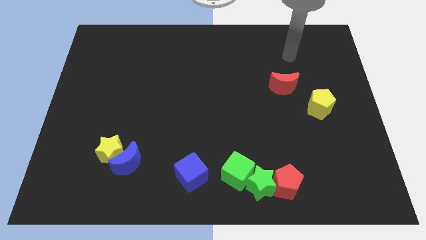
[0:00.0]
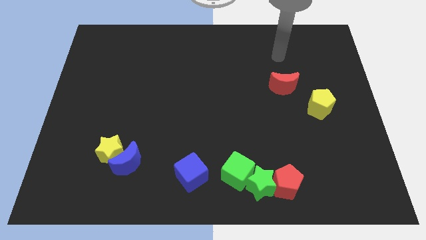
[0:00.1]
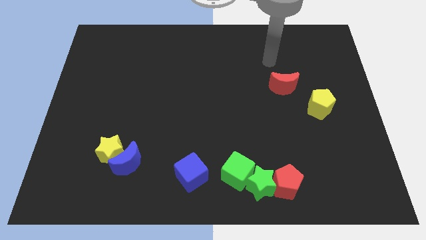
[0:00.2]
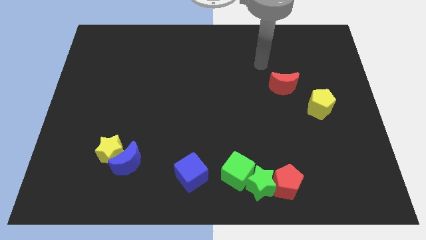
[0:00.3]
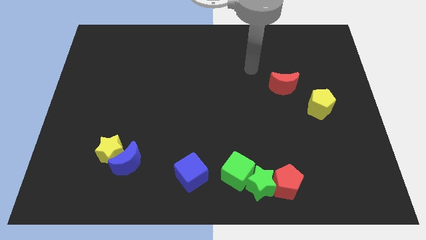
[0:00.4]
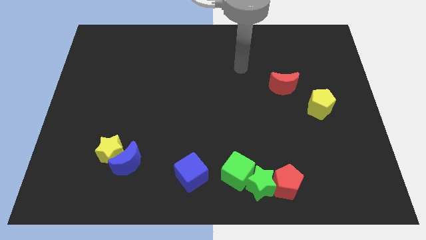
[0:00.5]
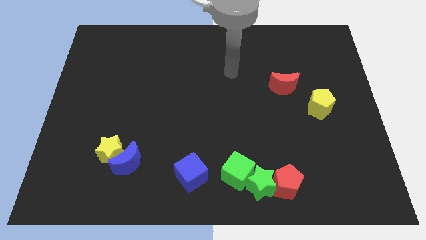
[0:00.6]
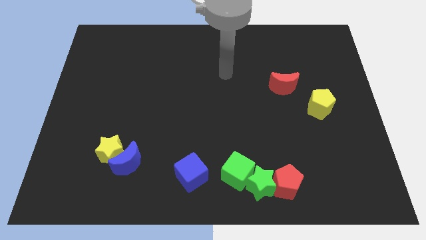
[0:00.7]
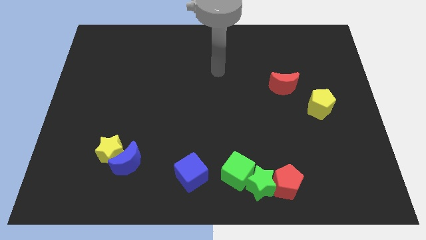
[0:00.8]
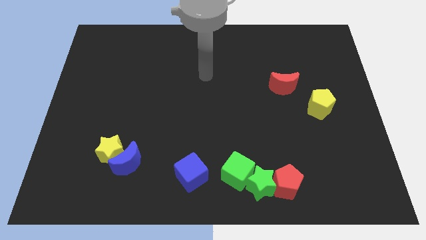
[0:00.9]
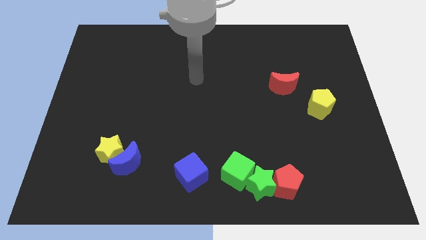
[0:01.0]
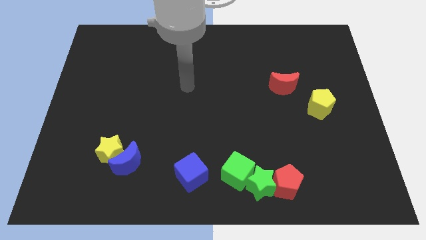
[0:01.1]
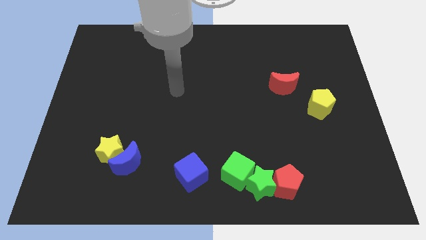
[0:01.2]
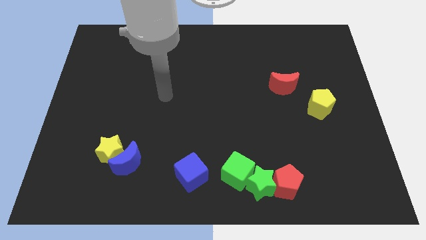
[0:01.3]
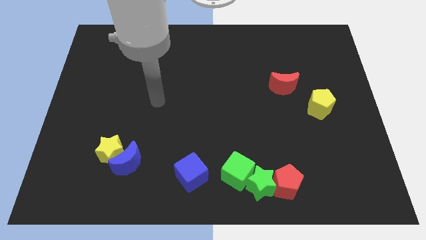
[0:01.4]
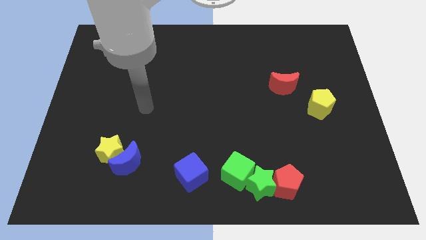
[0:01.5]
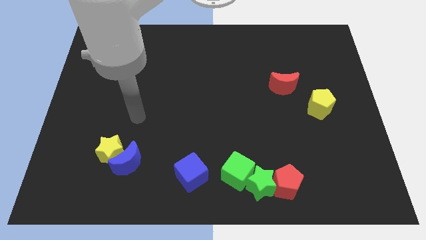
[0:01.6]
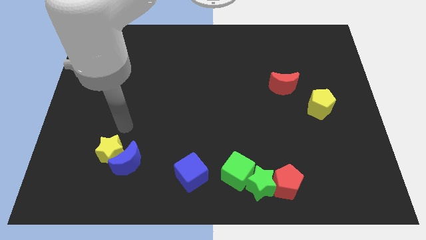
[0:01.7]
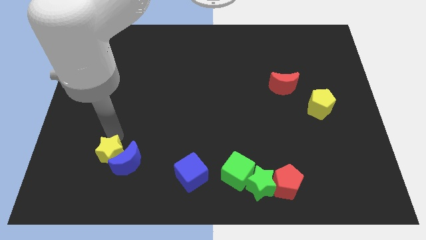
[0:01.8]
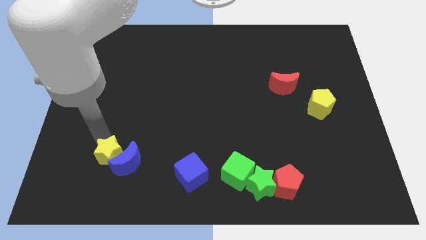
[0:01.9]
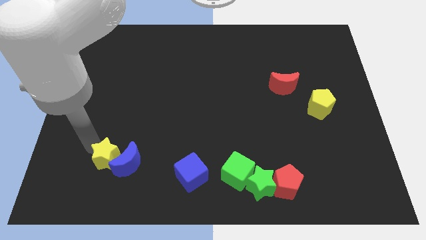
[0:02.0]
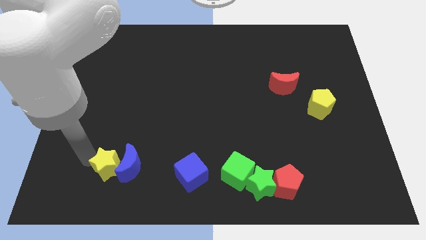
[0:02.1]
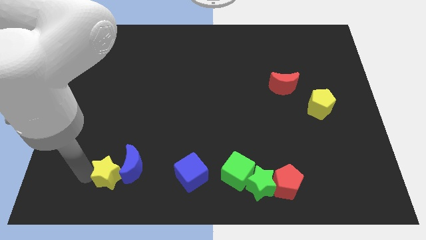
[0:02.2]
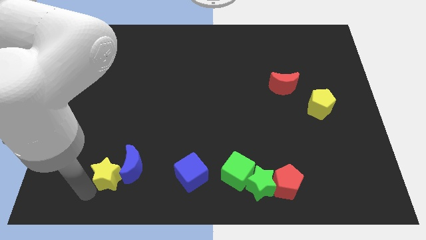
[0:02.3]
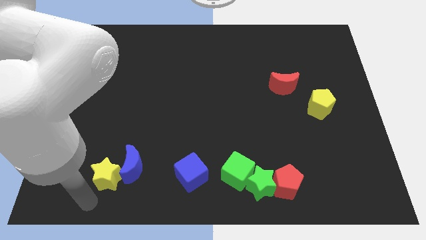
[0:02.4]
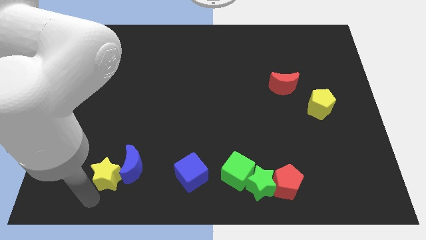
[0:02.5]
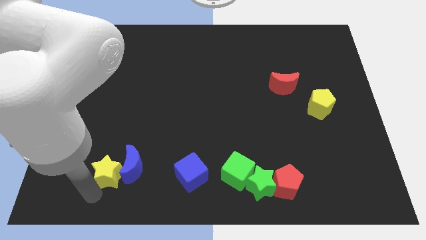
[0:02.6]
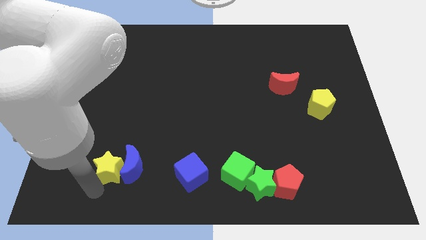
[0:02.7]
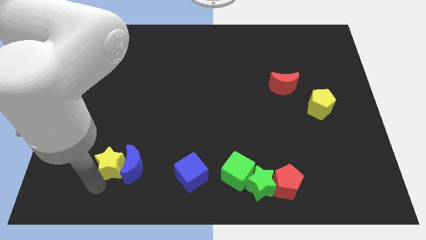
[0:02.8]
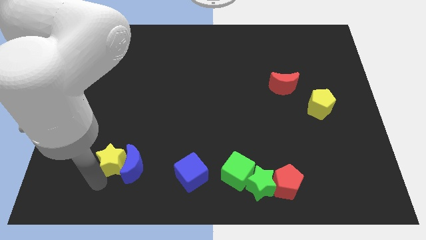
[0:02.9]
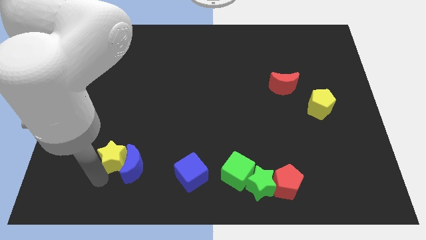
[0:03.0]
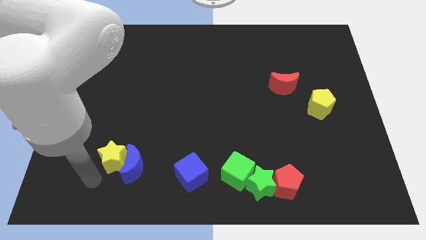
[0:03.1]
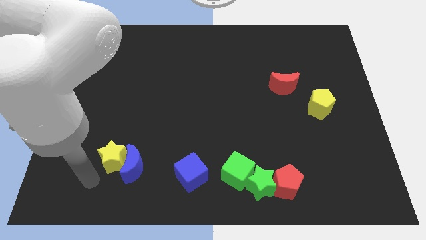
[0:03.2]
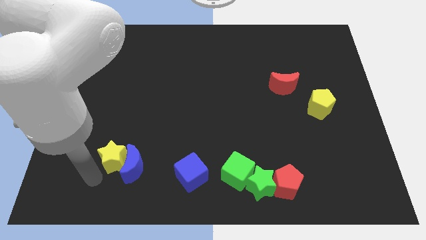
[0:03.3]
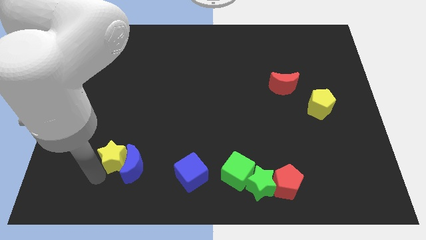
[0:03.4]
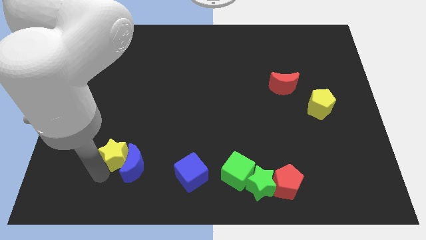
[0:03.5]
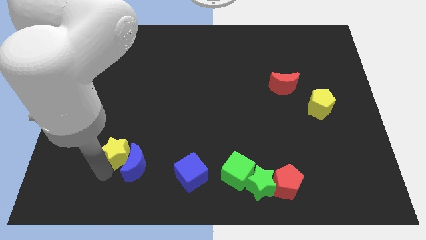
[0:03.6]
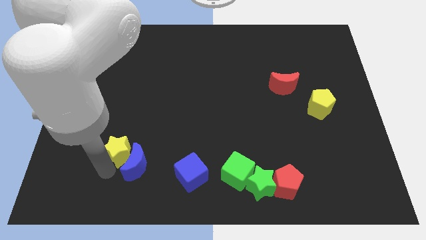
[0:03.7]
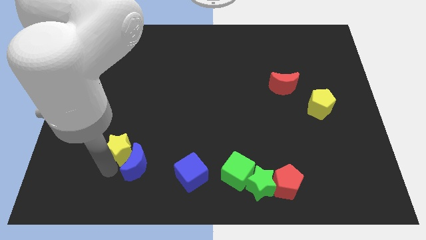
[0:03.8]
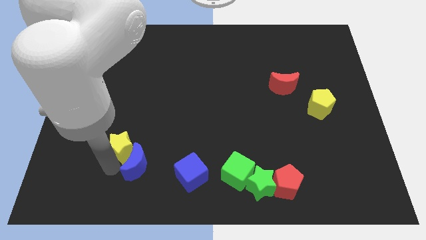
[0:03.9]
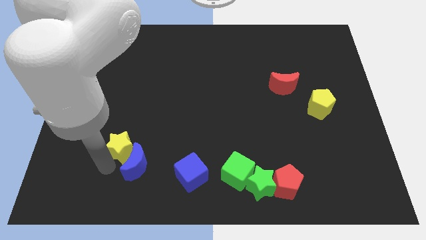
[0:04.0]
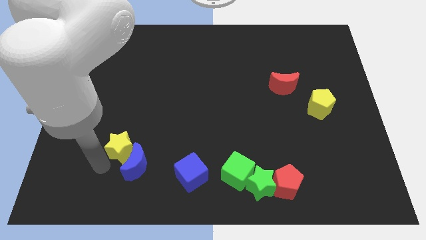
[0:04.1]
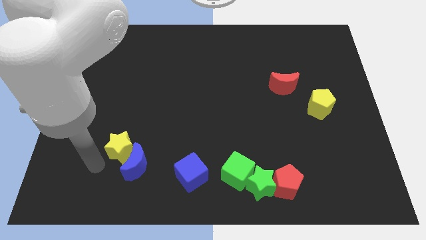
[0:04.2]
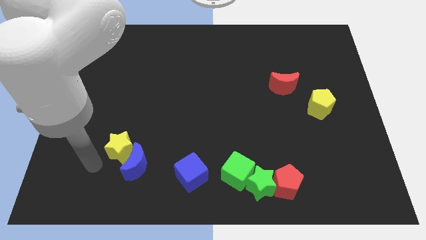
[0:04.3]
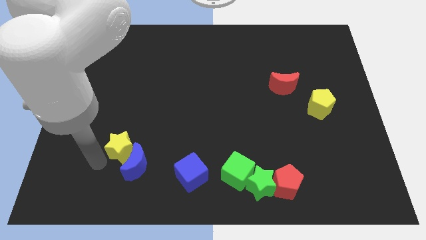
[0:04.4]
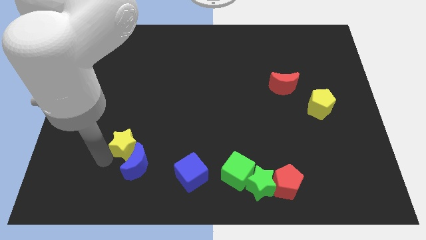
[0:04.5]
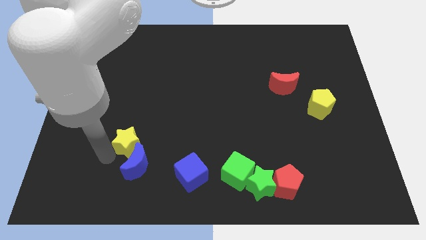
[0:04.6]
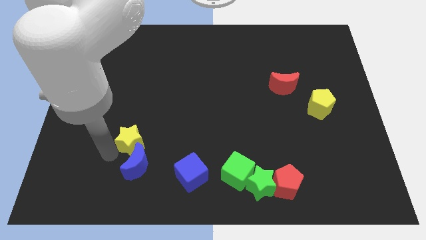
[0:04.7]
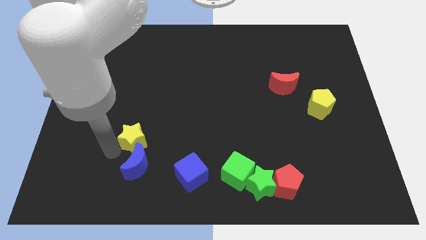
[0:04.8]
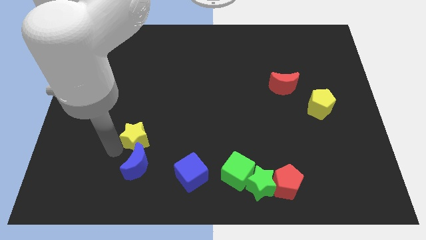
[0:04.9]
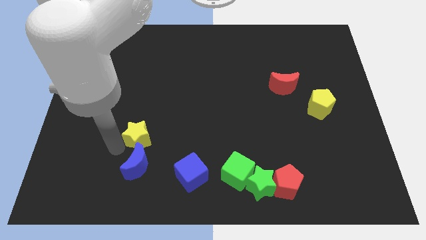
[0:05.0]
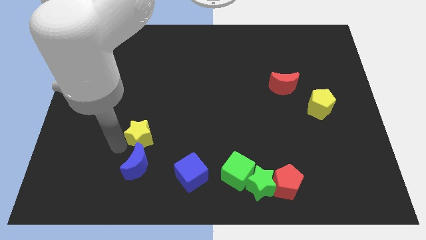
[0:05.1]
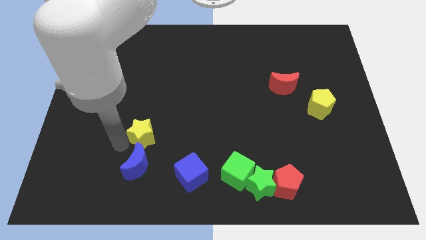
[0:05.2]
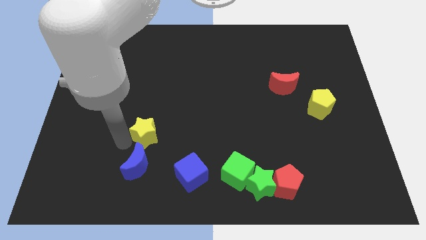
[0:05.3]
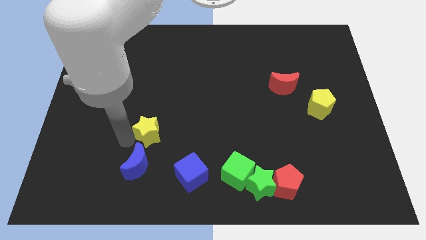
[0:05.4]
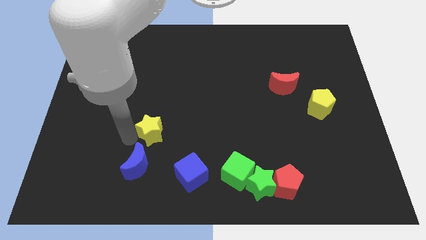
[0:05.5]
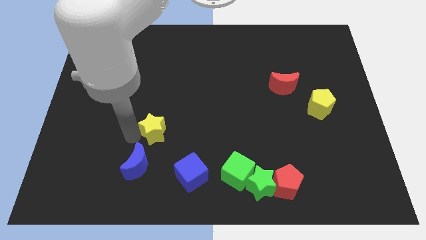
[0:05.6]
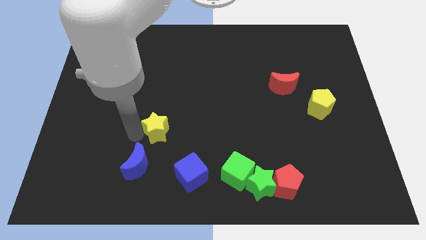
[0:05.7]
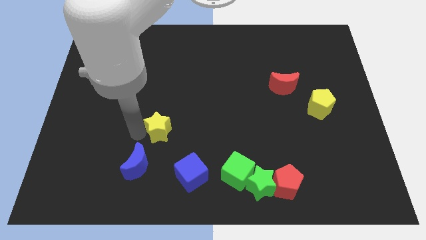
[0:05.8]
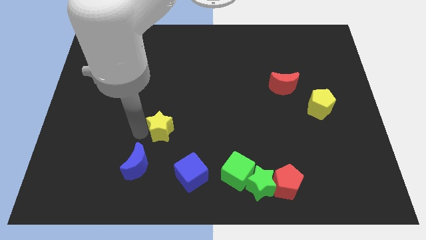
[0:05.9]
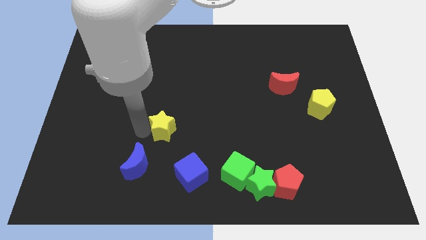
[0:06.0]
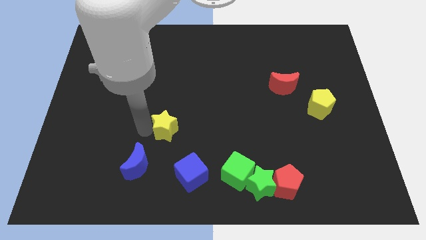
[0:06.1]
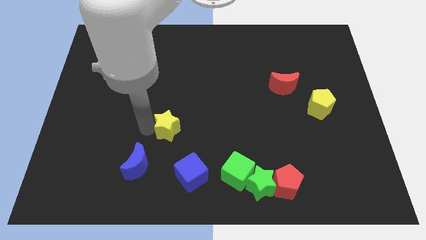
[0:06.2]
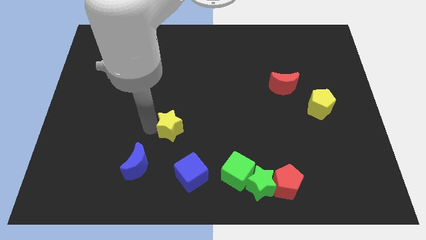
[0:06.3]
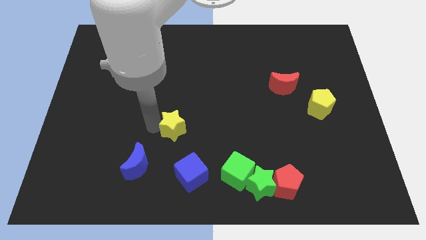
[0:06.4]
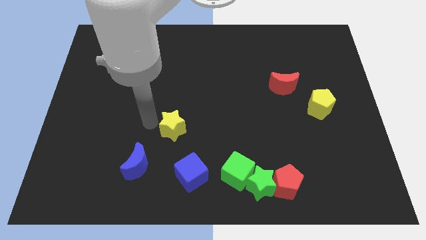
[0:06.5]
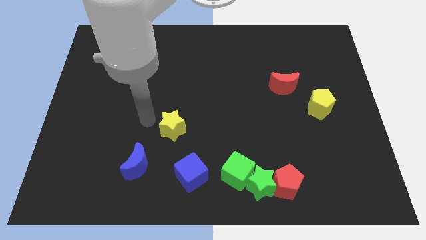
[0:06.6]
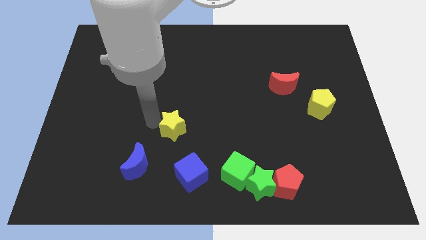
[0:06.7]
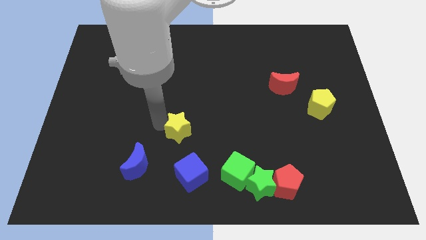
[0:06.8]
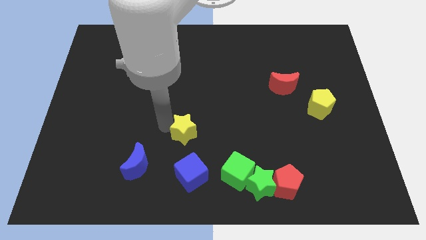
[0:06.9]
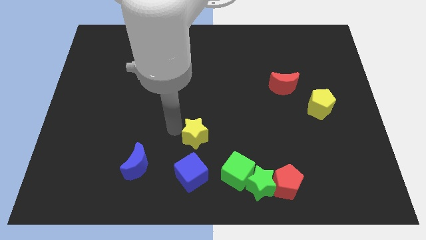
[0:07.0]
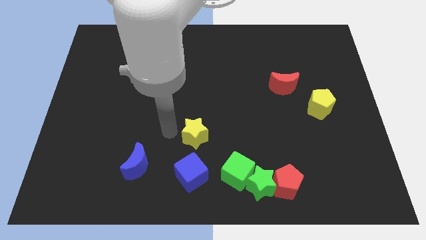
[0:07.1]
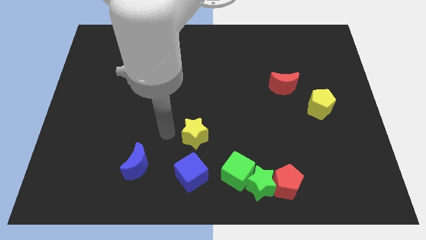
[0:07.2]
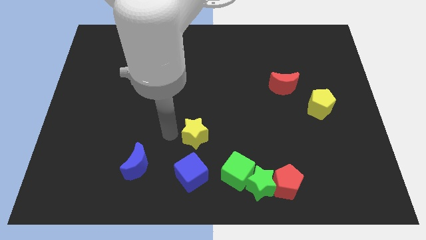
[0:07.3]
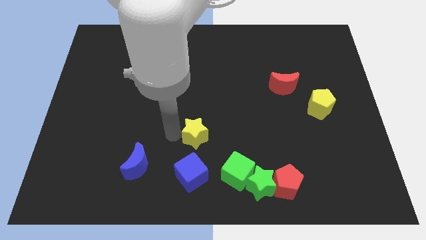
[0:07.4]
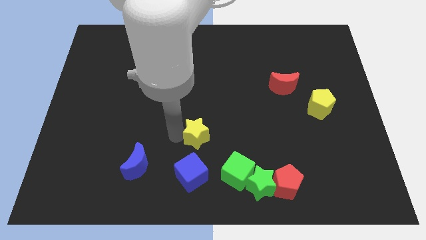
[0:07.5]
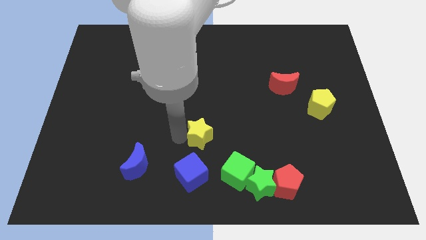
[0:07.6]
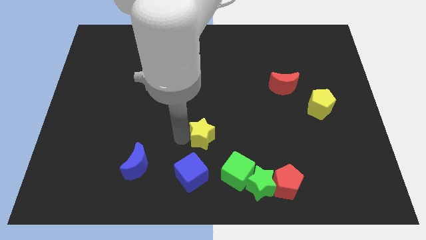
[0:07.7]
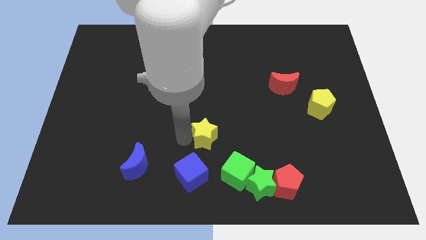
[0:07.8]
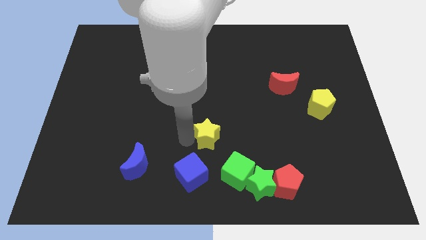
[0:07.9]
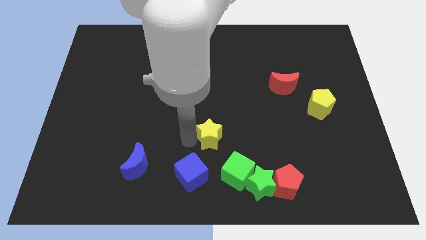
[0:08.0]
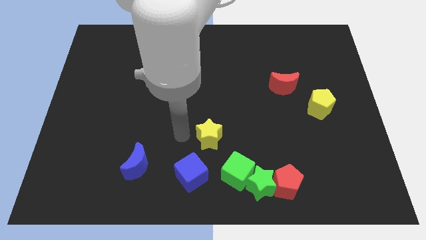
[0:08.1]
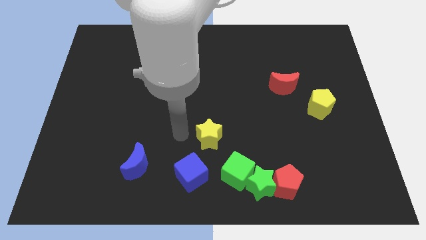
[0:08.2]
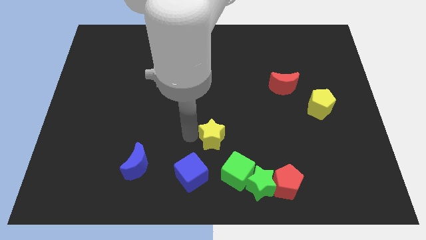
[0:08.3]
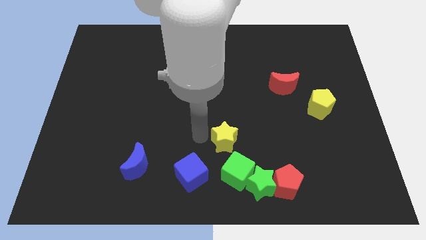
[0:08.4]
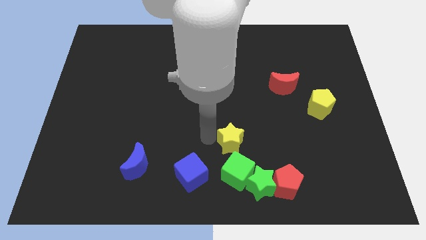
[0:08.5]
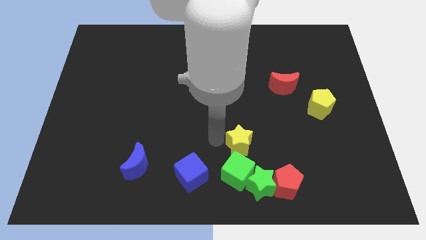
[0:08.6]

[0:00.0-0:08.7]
push the yellow star above the green star
